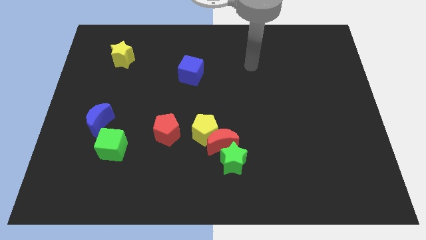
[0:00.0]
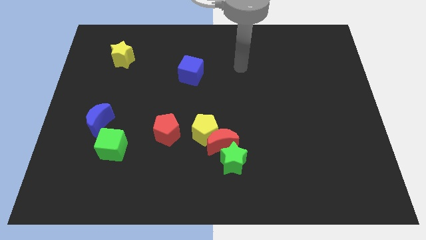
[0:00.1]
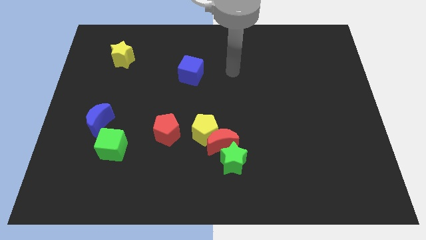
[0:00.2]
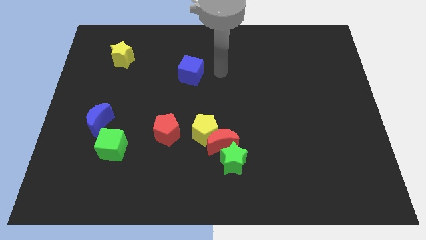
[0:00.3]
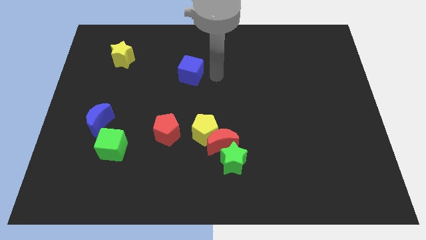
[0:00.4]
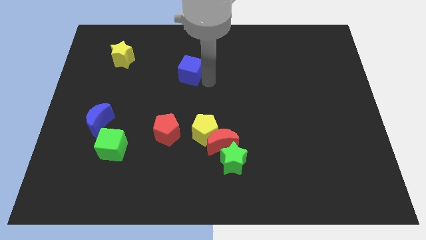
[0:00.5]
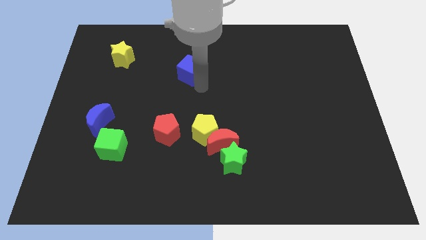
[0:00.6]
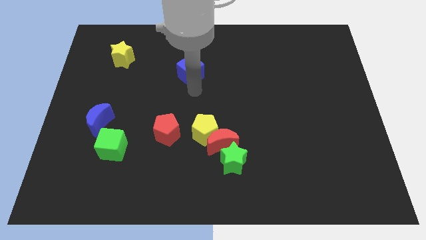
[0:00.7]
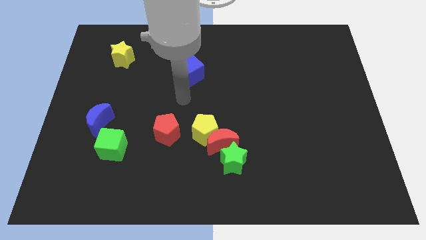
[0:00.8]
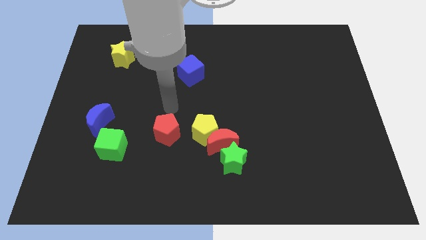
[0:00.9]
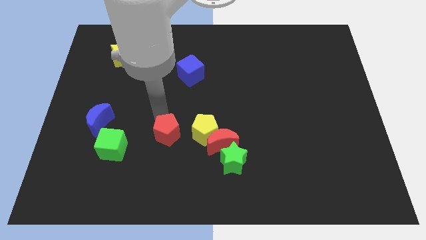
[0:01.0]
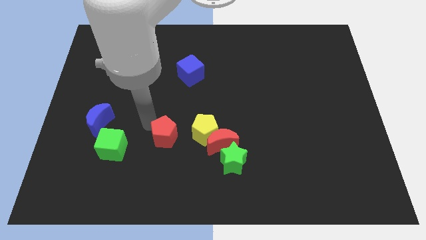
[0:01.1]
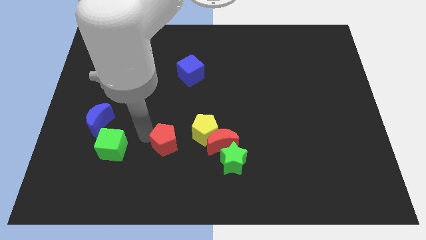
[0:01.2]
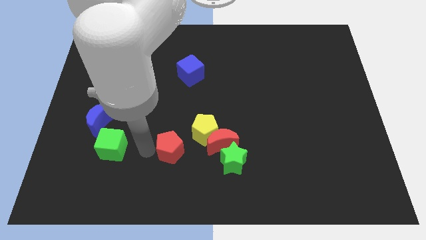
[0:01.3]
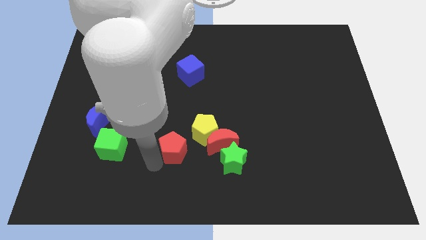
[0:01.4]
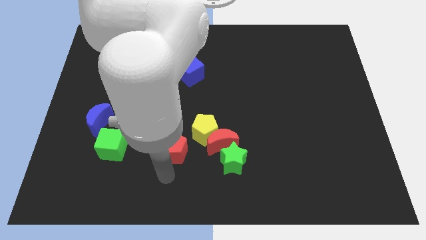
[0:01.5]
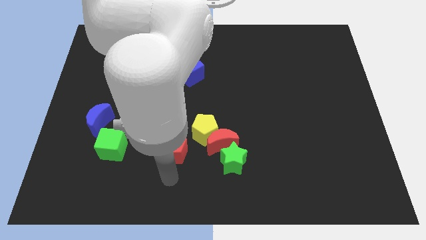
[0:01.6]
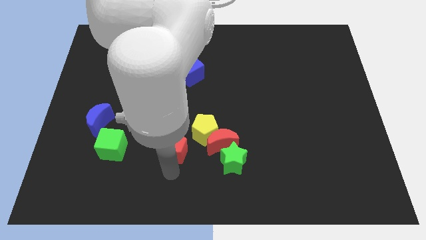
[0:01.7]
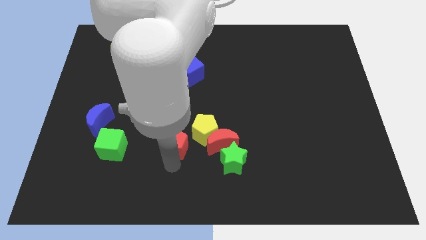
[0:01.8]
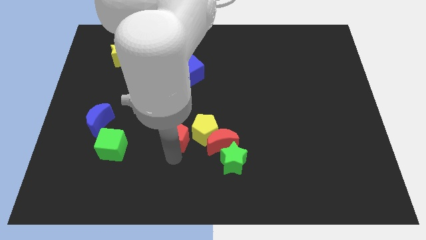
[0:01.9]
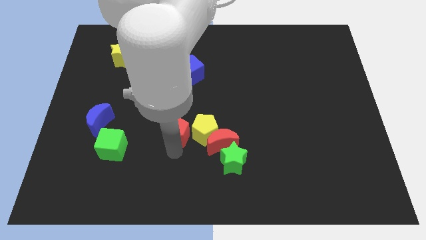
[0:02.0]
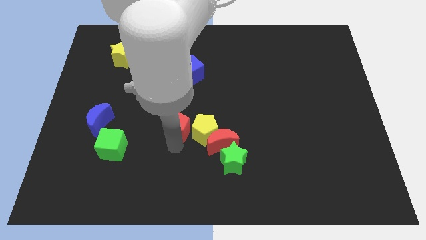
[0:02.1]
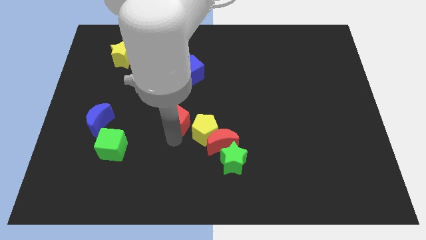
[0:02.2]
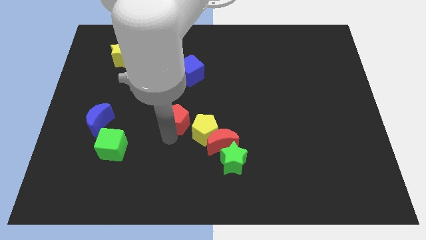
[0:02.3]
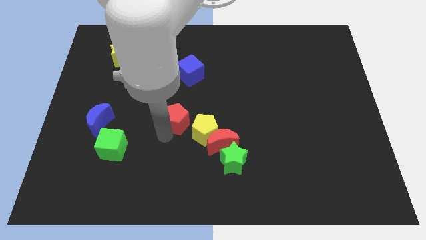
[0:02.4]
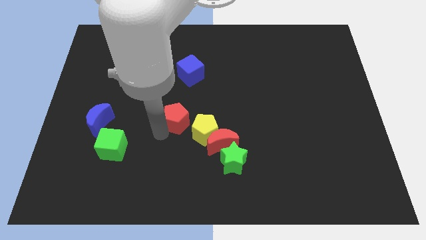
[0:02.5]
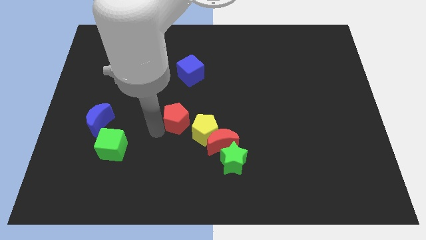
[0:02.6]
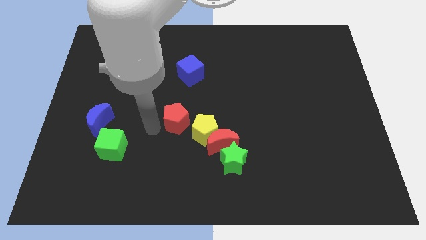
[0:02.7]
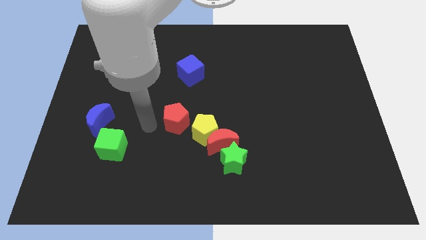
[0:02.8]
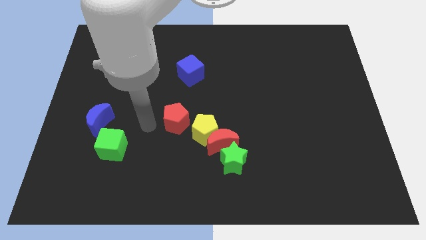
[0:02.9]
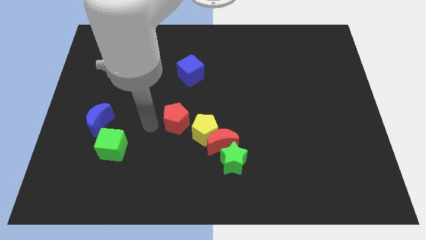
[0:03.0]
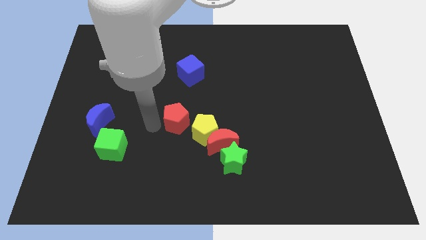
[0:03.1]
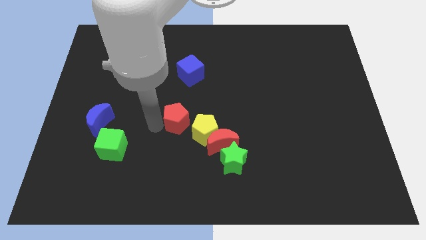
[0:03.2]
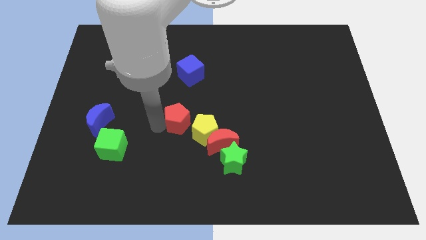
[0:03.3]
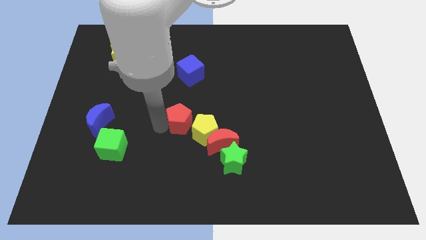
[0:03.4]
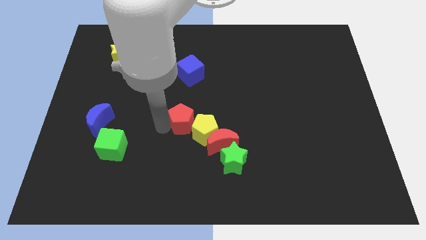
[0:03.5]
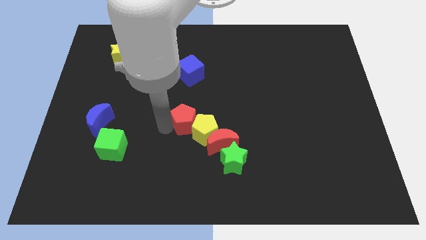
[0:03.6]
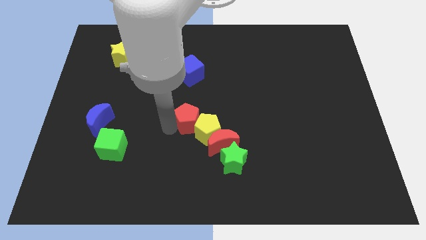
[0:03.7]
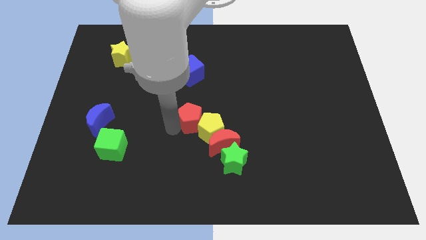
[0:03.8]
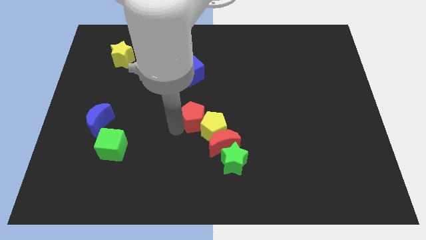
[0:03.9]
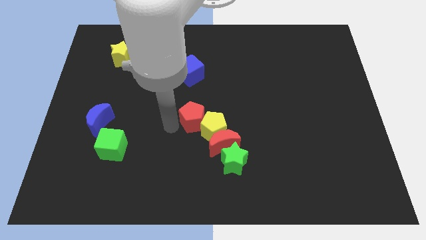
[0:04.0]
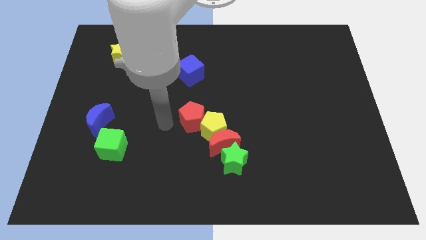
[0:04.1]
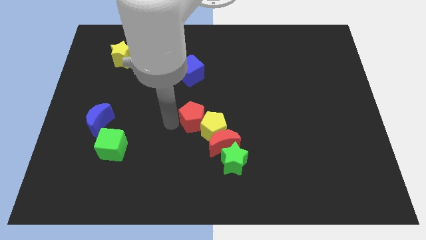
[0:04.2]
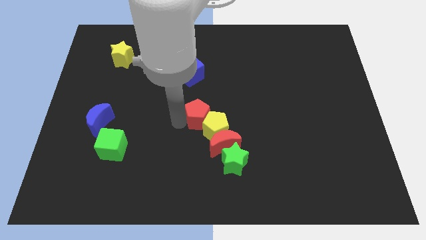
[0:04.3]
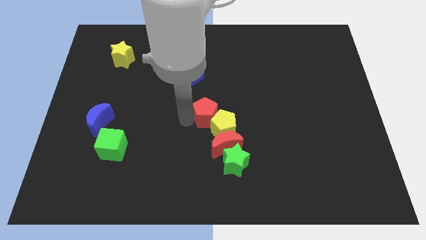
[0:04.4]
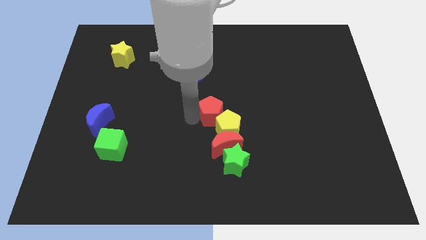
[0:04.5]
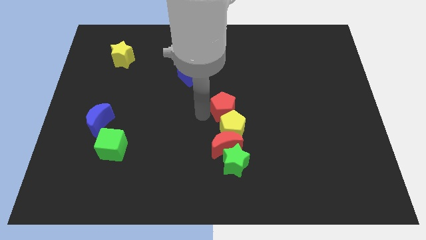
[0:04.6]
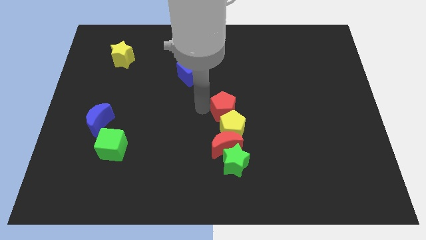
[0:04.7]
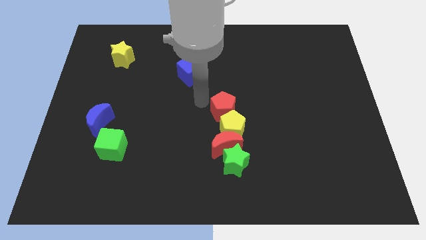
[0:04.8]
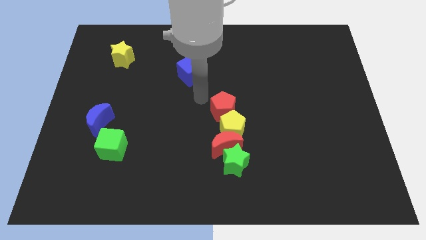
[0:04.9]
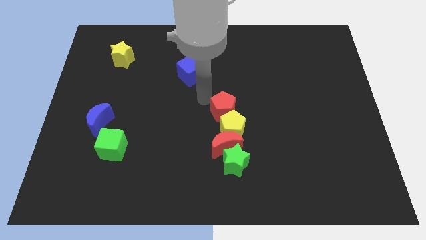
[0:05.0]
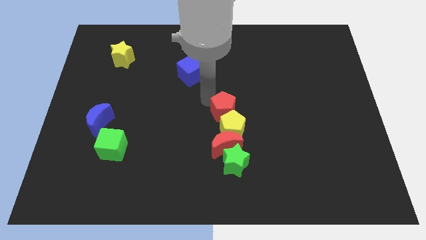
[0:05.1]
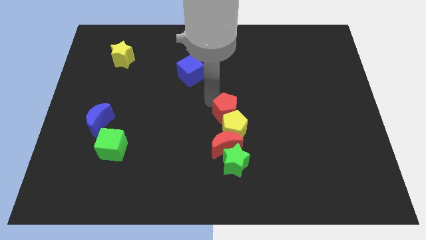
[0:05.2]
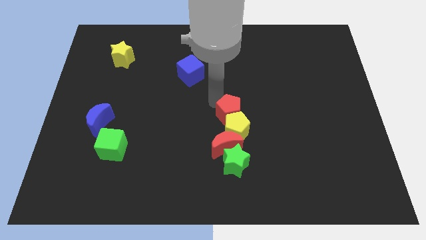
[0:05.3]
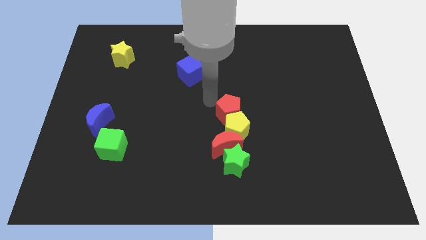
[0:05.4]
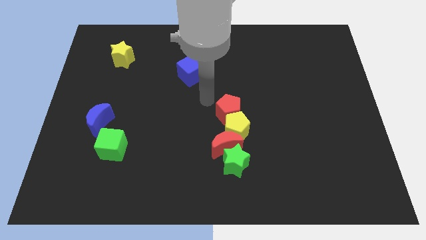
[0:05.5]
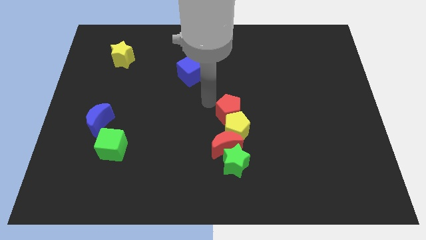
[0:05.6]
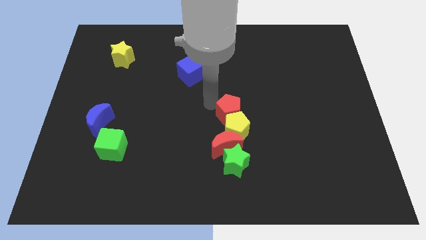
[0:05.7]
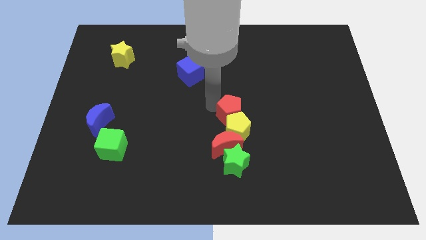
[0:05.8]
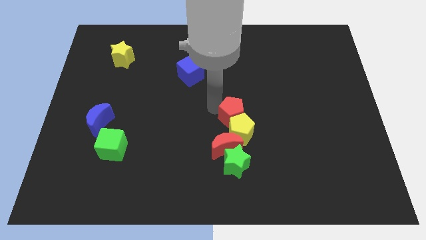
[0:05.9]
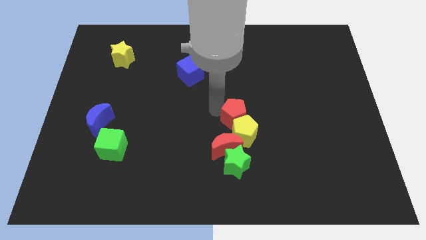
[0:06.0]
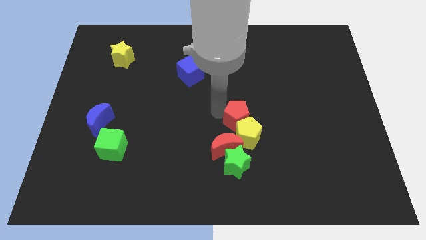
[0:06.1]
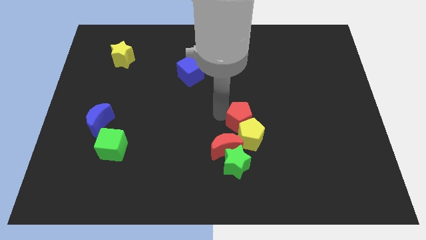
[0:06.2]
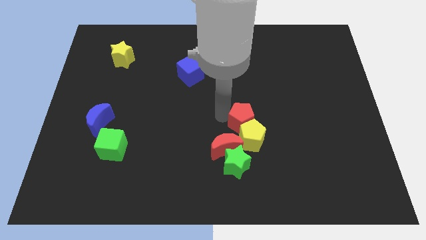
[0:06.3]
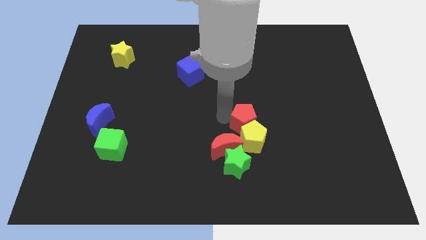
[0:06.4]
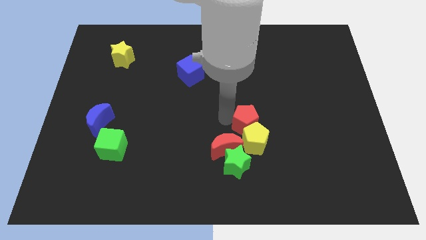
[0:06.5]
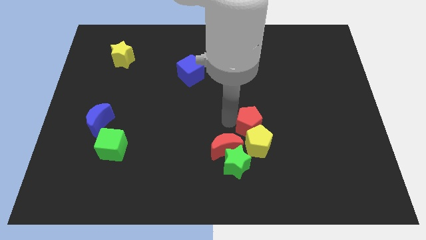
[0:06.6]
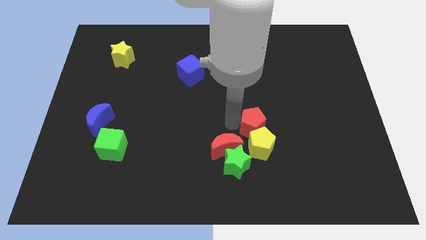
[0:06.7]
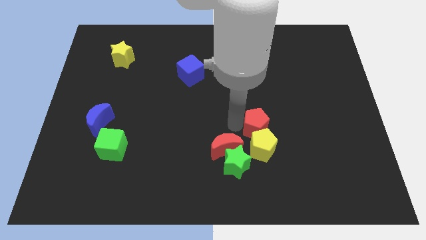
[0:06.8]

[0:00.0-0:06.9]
slide the red pentagon right

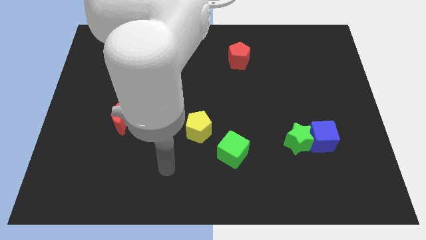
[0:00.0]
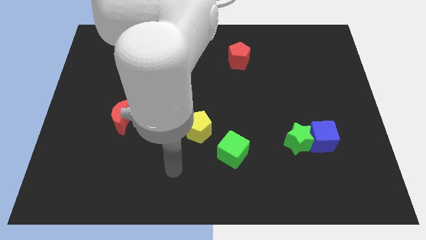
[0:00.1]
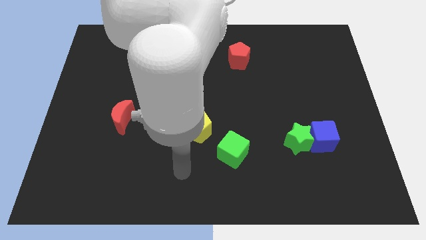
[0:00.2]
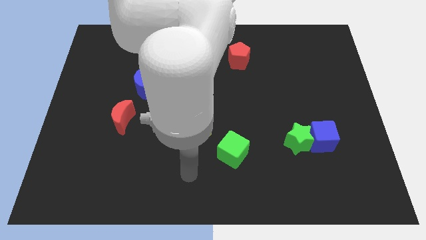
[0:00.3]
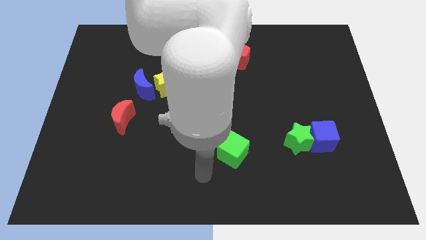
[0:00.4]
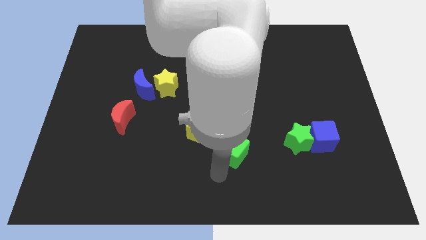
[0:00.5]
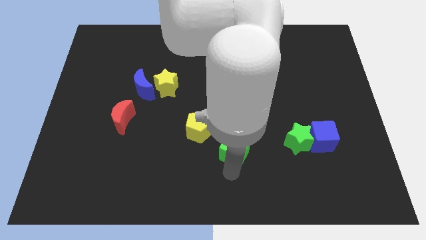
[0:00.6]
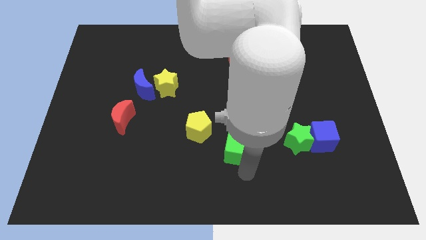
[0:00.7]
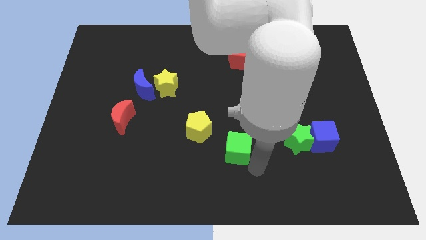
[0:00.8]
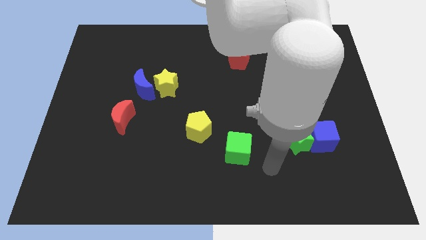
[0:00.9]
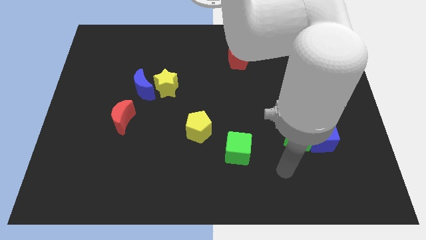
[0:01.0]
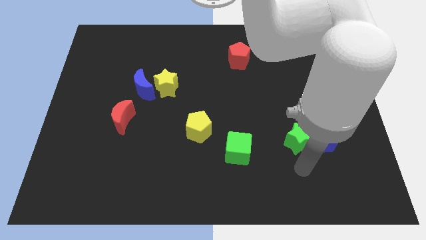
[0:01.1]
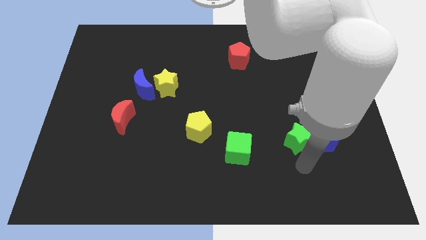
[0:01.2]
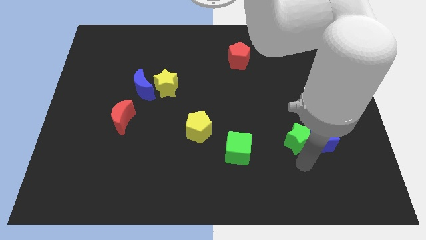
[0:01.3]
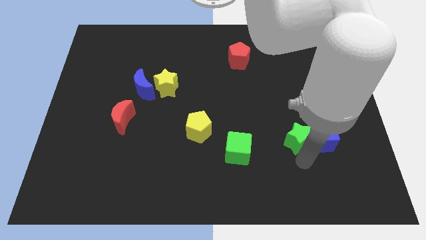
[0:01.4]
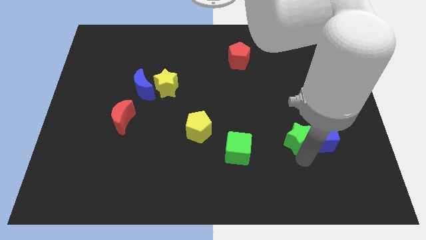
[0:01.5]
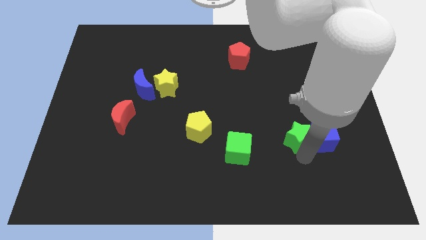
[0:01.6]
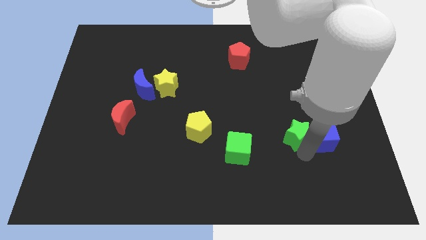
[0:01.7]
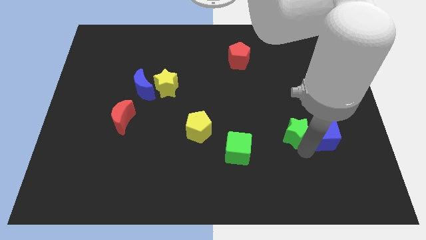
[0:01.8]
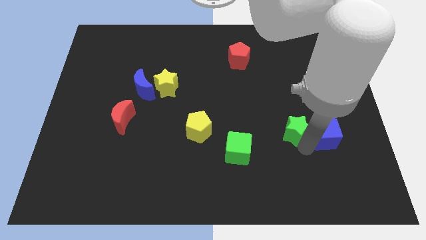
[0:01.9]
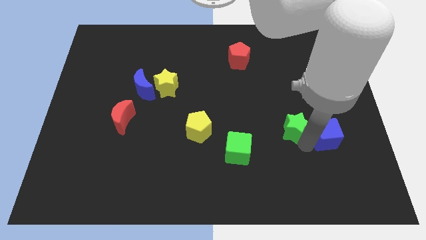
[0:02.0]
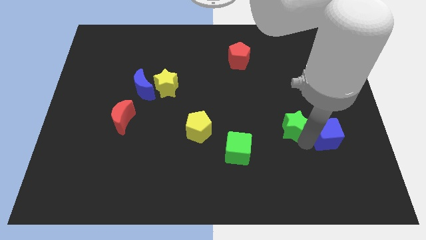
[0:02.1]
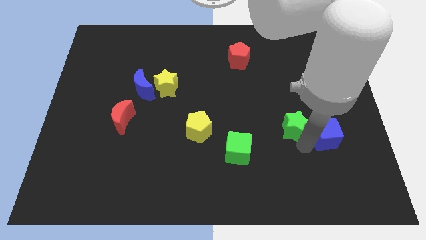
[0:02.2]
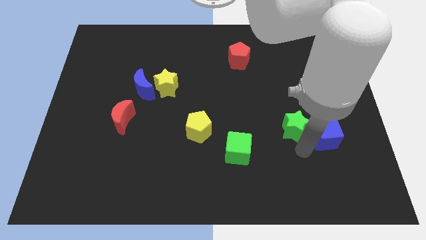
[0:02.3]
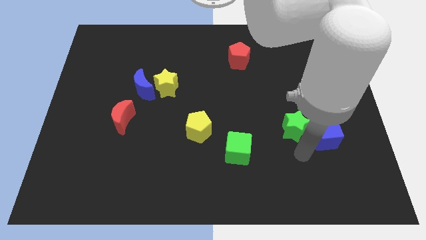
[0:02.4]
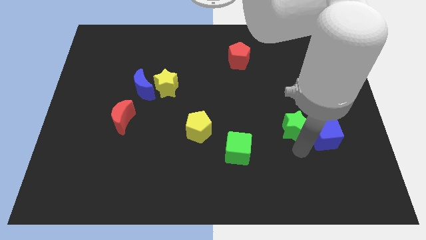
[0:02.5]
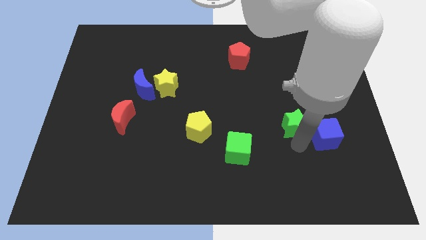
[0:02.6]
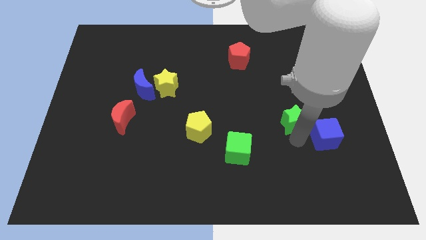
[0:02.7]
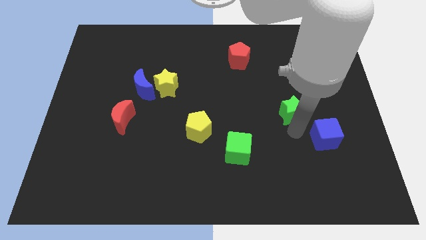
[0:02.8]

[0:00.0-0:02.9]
slide the green star upwards a little bit
